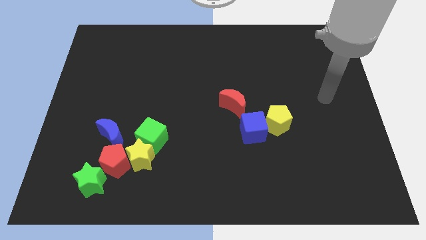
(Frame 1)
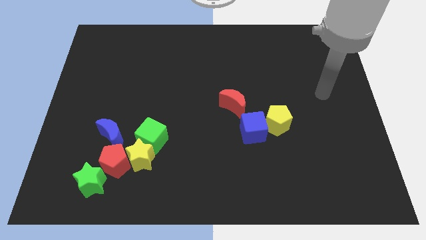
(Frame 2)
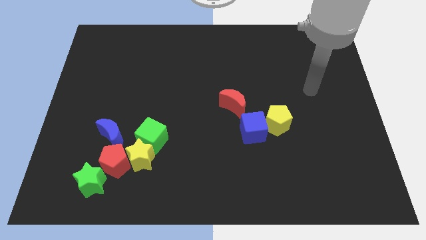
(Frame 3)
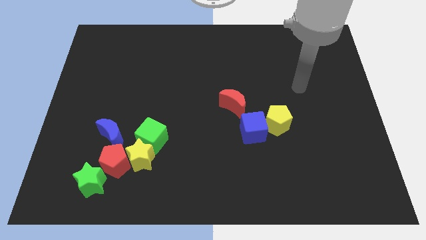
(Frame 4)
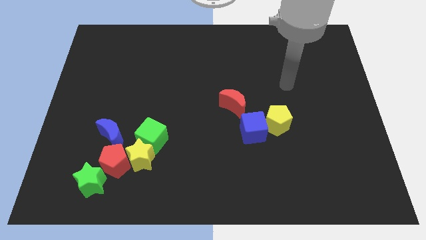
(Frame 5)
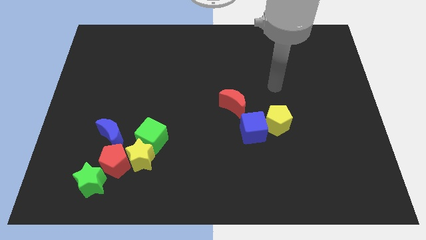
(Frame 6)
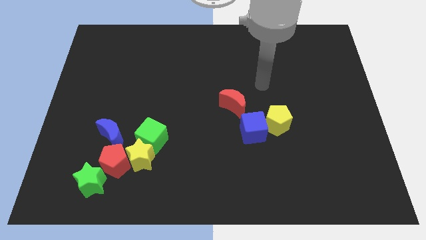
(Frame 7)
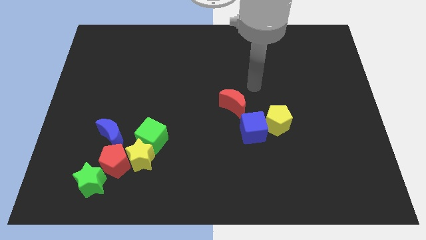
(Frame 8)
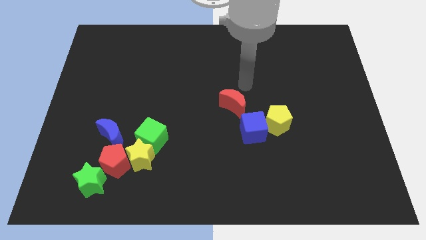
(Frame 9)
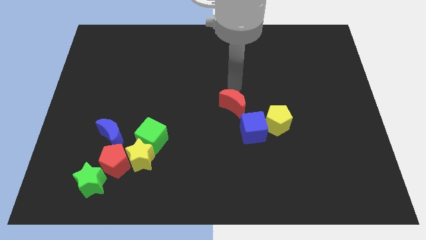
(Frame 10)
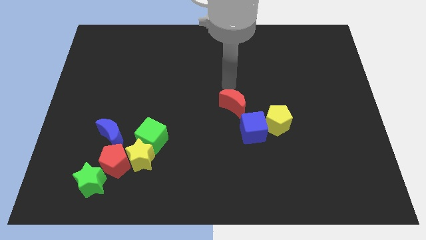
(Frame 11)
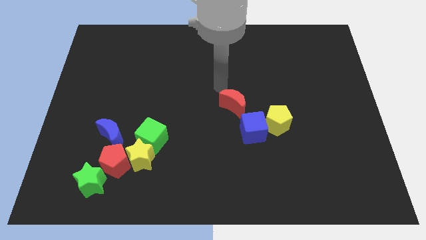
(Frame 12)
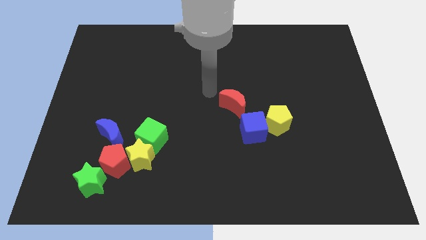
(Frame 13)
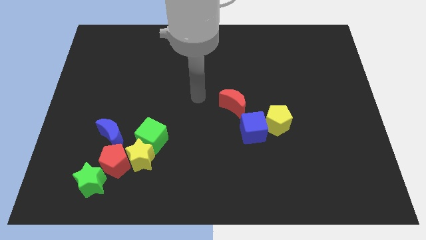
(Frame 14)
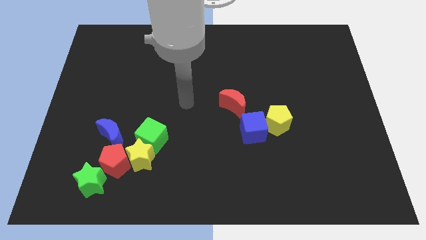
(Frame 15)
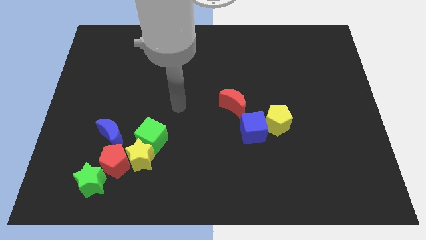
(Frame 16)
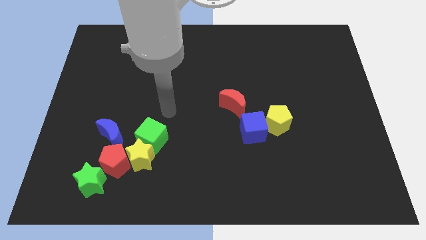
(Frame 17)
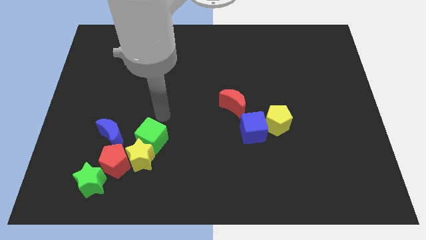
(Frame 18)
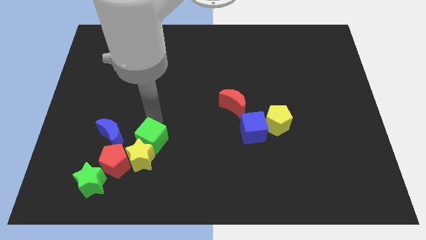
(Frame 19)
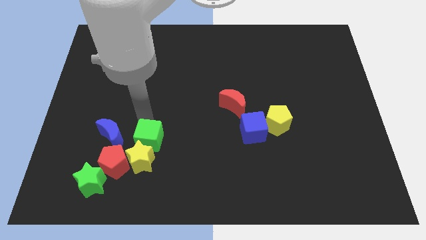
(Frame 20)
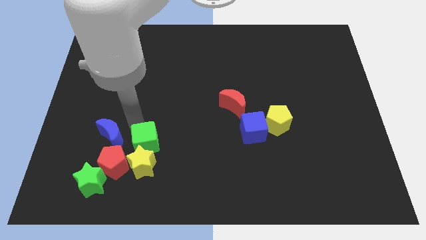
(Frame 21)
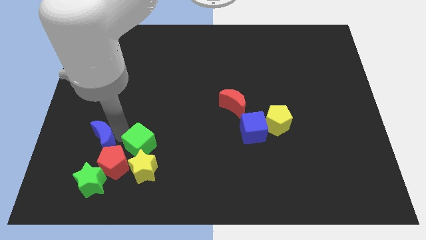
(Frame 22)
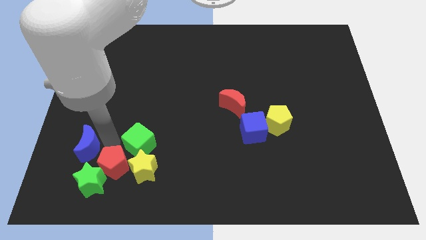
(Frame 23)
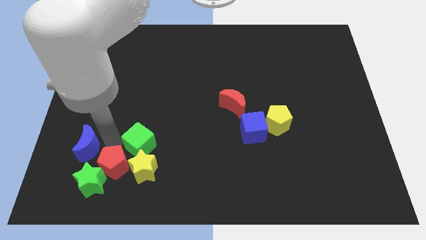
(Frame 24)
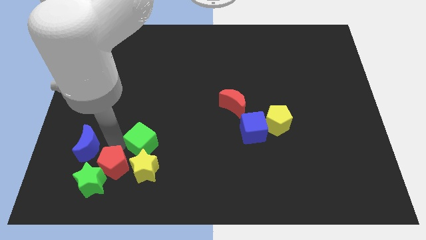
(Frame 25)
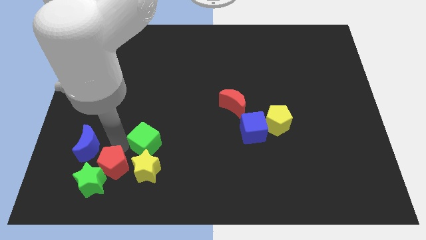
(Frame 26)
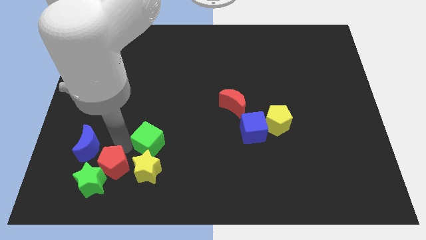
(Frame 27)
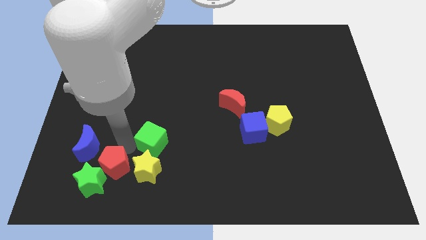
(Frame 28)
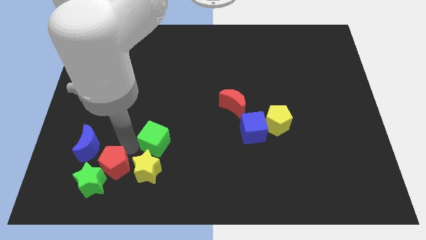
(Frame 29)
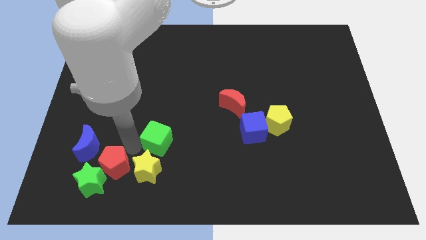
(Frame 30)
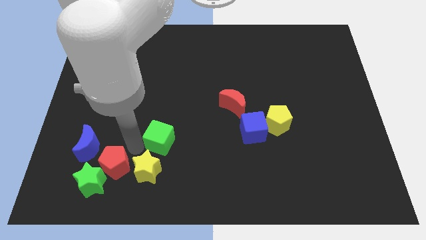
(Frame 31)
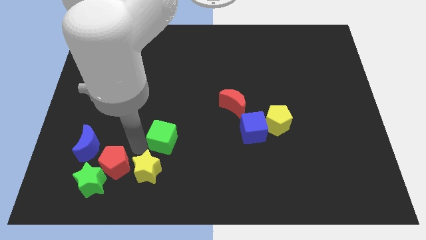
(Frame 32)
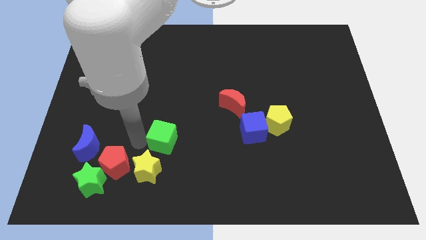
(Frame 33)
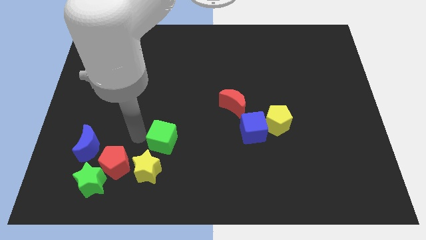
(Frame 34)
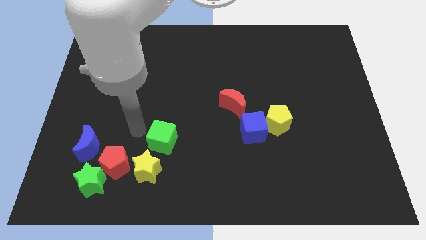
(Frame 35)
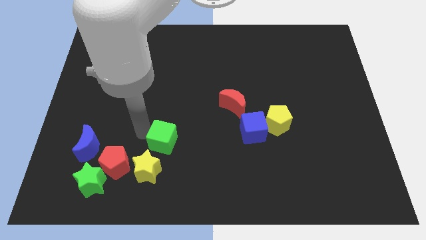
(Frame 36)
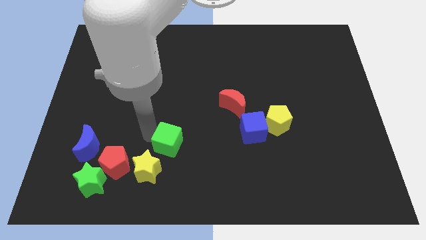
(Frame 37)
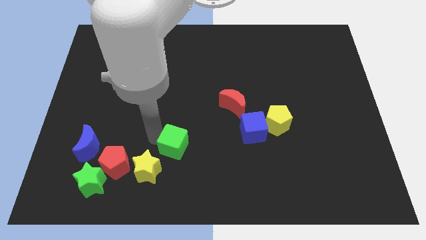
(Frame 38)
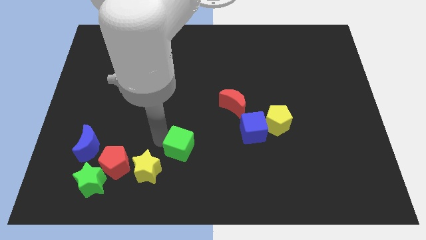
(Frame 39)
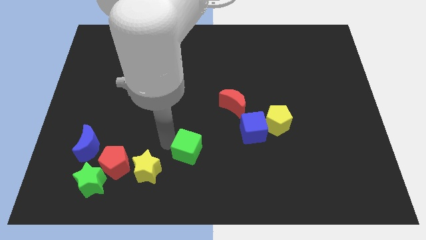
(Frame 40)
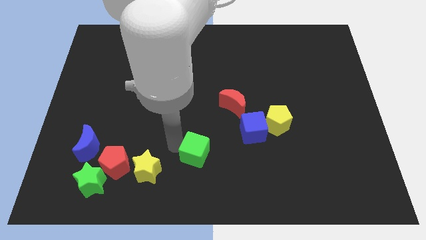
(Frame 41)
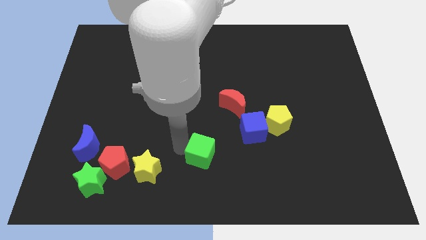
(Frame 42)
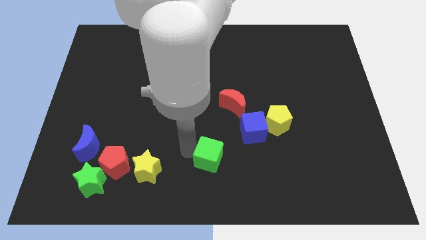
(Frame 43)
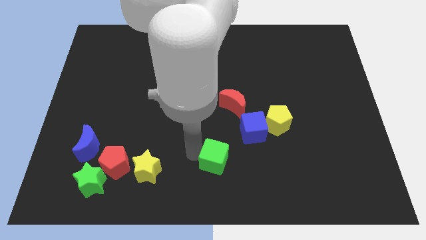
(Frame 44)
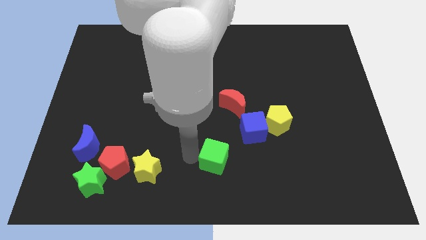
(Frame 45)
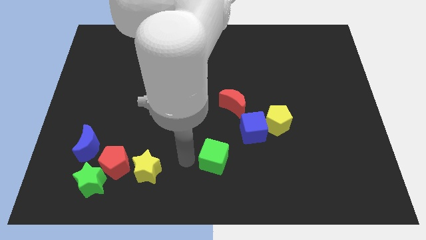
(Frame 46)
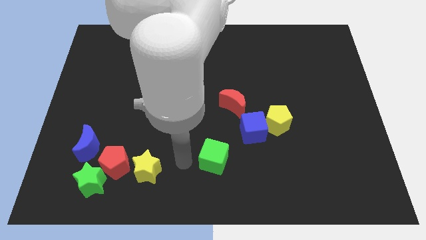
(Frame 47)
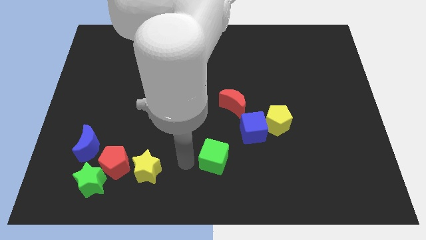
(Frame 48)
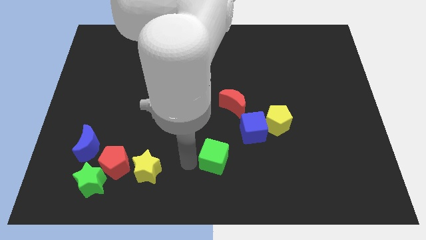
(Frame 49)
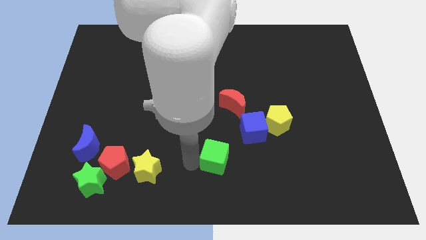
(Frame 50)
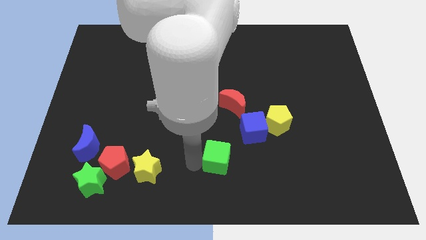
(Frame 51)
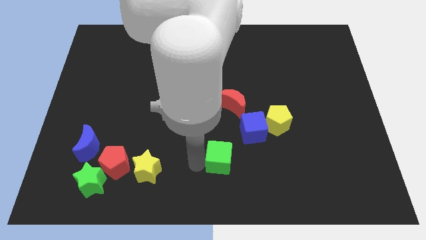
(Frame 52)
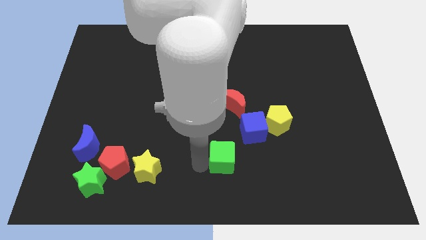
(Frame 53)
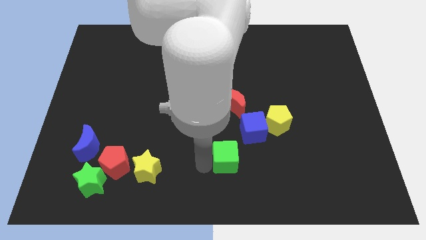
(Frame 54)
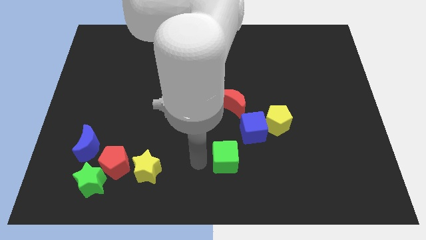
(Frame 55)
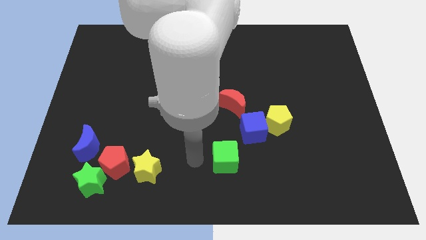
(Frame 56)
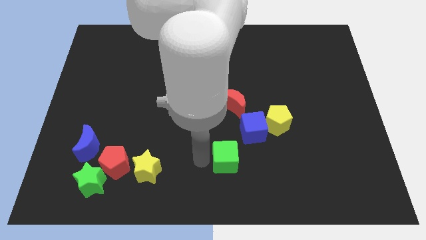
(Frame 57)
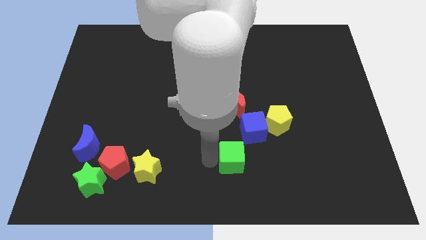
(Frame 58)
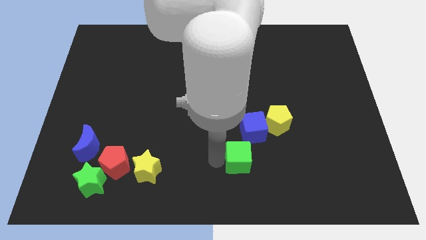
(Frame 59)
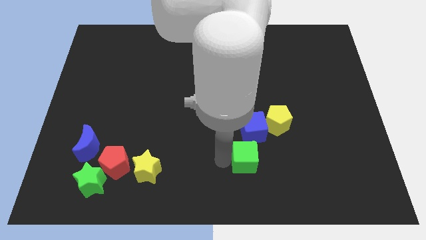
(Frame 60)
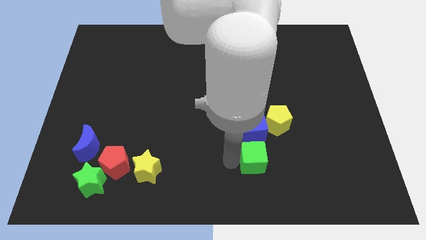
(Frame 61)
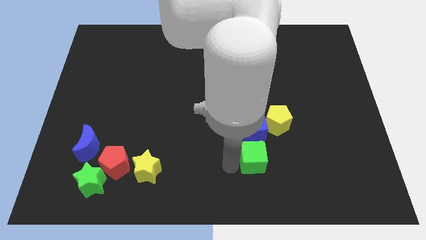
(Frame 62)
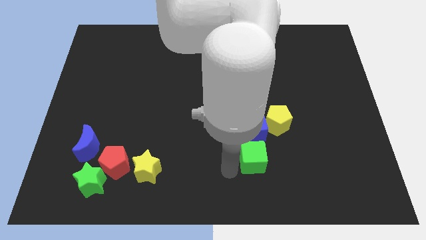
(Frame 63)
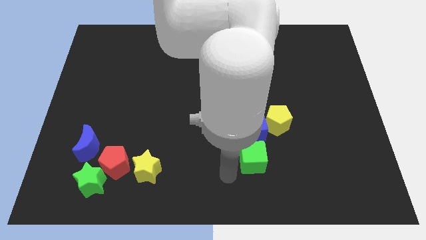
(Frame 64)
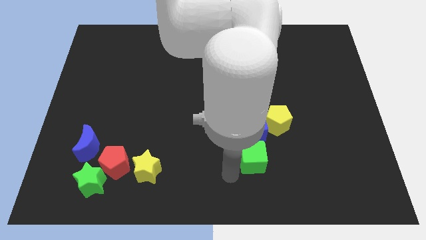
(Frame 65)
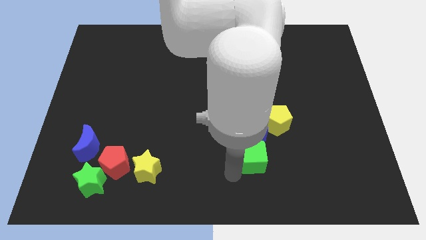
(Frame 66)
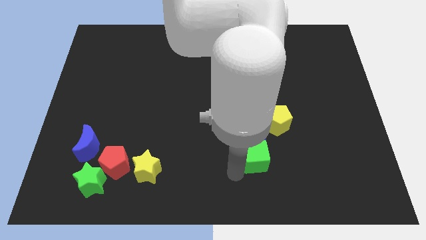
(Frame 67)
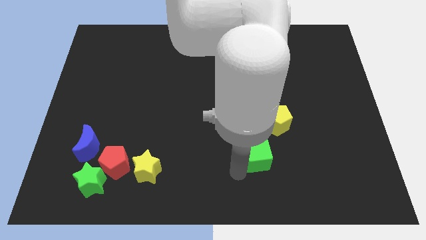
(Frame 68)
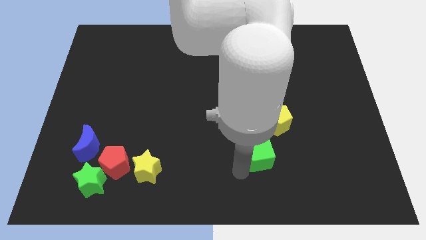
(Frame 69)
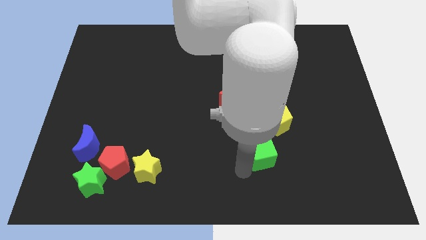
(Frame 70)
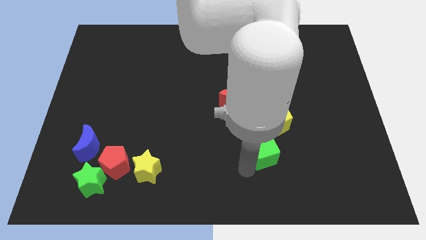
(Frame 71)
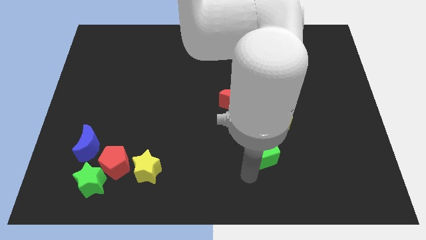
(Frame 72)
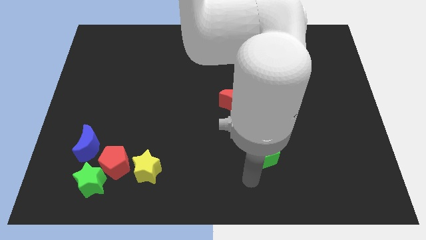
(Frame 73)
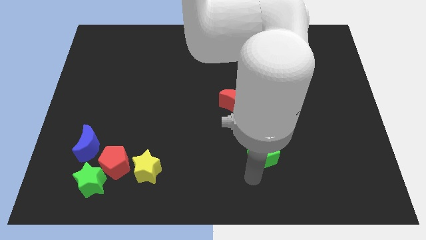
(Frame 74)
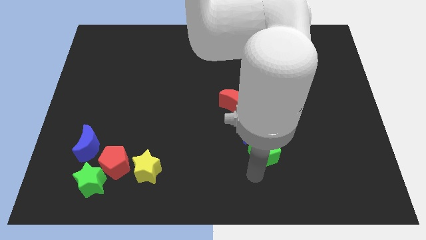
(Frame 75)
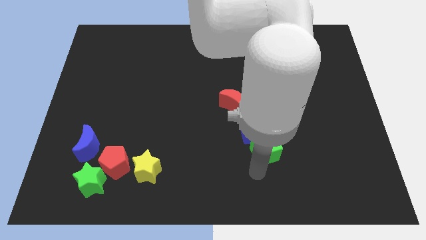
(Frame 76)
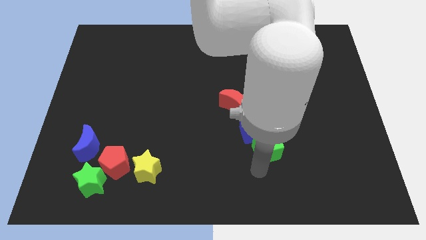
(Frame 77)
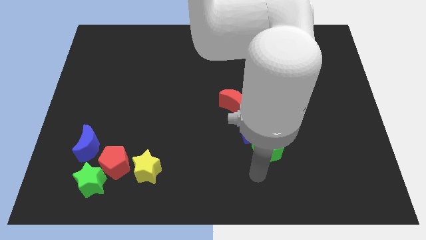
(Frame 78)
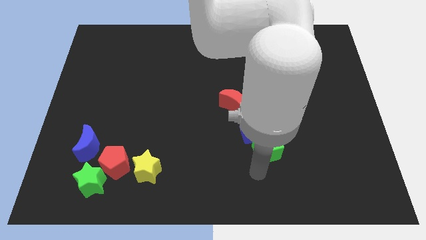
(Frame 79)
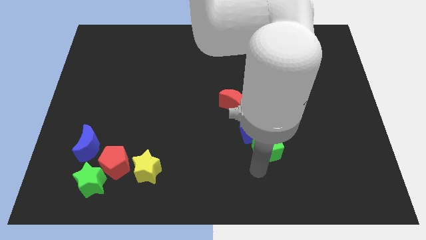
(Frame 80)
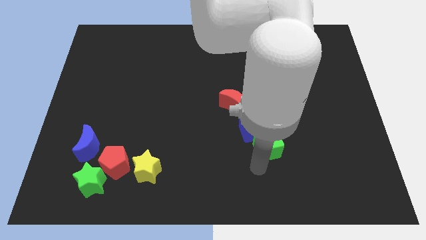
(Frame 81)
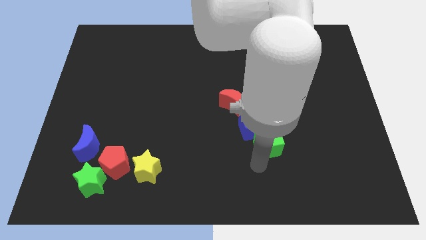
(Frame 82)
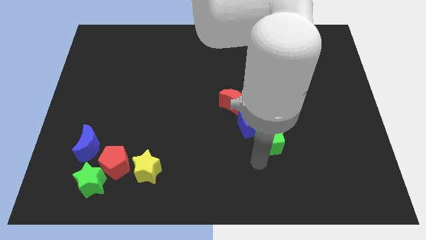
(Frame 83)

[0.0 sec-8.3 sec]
slide the green cube to the yellow pentagon
